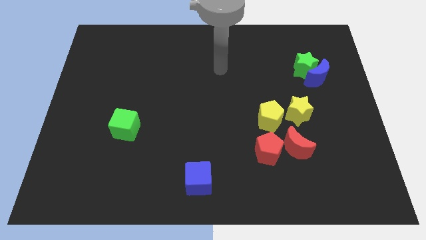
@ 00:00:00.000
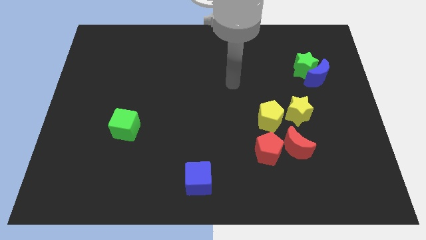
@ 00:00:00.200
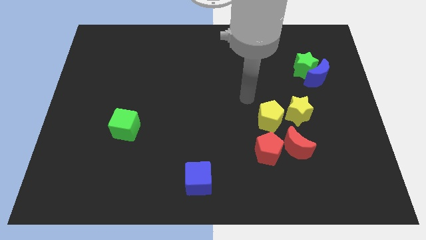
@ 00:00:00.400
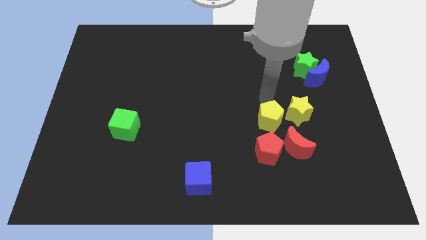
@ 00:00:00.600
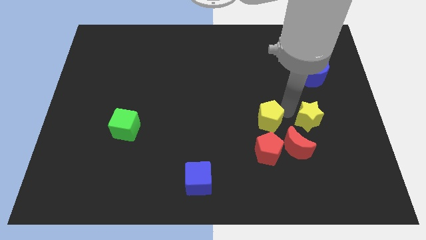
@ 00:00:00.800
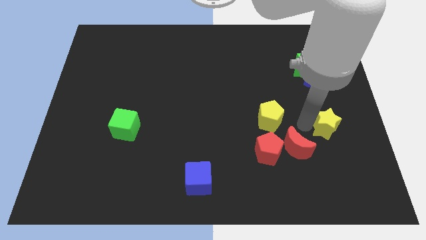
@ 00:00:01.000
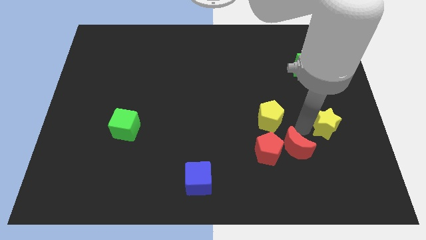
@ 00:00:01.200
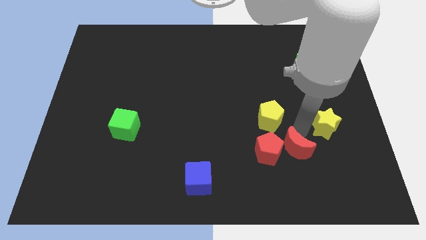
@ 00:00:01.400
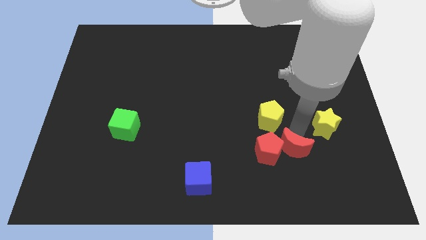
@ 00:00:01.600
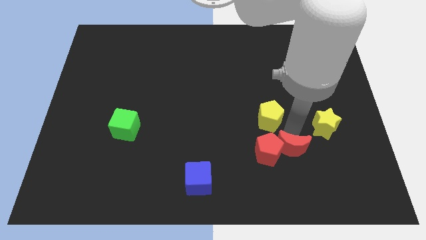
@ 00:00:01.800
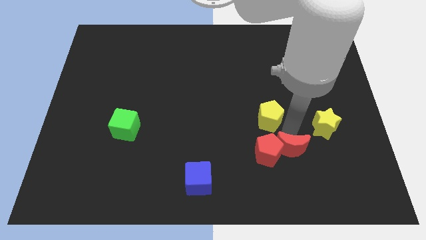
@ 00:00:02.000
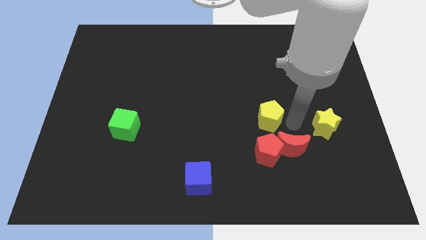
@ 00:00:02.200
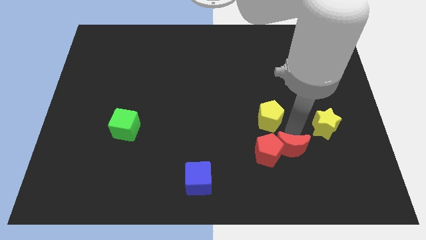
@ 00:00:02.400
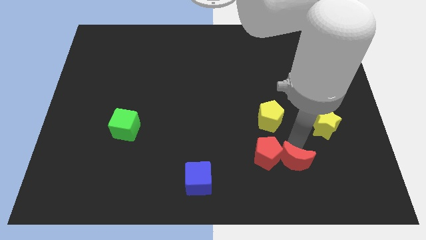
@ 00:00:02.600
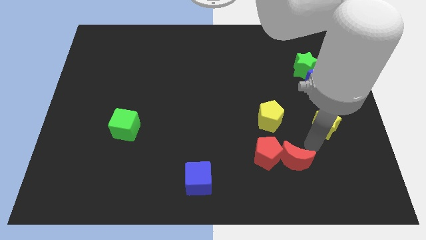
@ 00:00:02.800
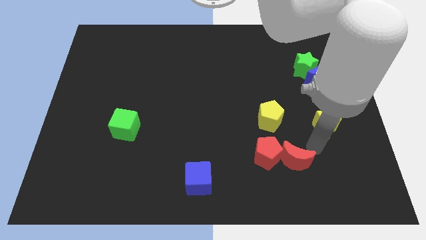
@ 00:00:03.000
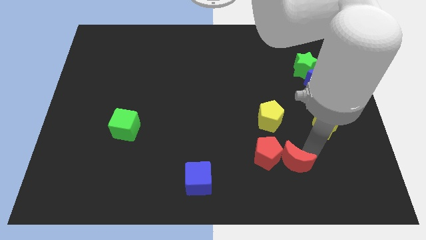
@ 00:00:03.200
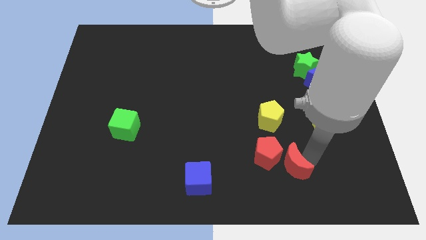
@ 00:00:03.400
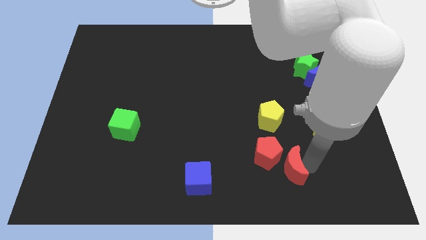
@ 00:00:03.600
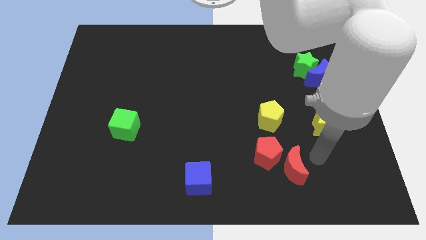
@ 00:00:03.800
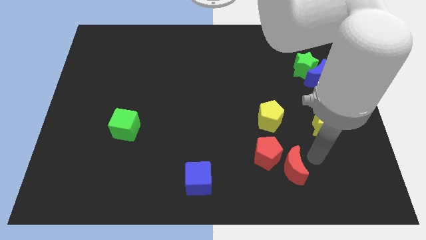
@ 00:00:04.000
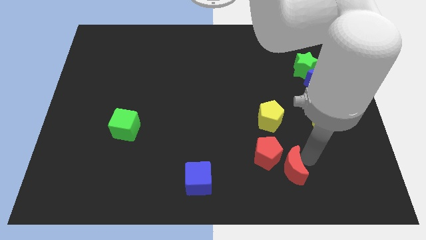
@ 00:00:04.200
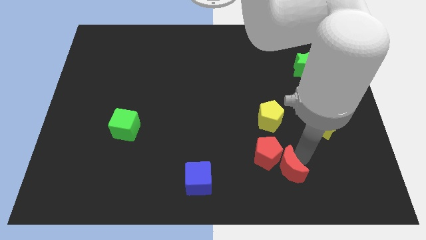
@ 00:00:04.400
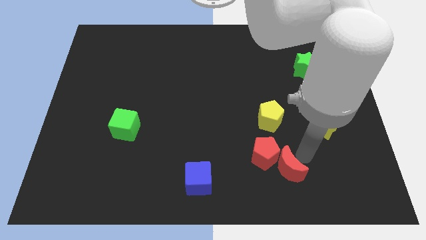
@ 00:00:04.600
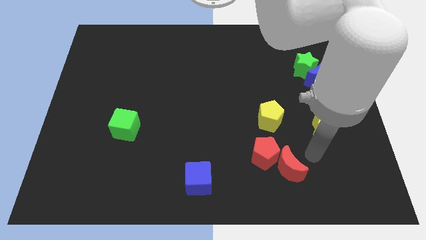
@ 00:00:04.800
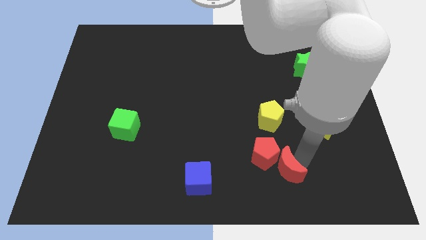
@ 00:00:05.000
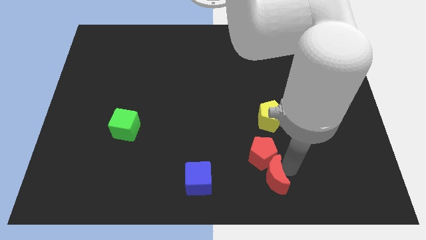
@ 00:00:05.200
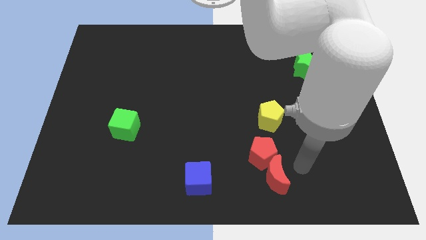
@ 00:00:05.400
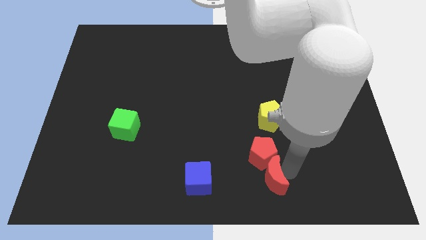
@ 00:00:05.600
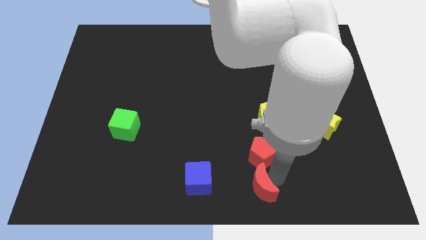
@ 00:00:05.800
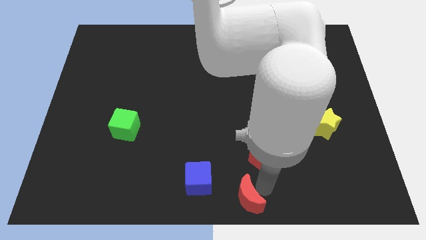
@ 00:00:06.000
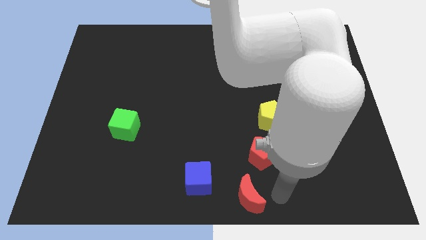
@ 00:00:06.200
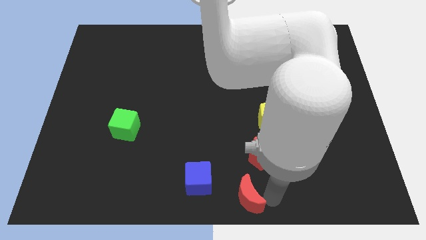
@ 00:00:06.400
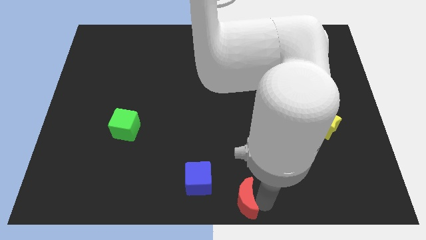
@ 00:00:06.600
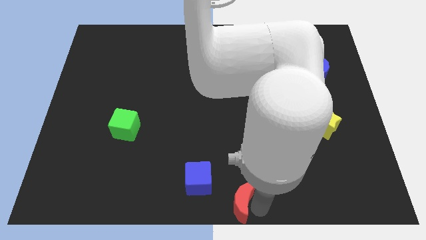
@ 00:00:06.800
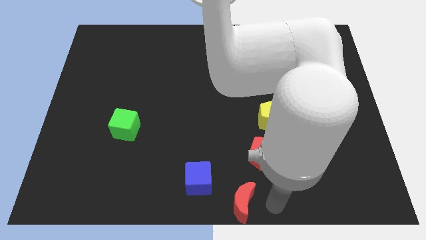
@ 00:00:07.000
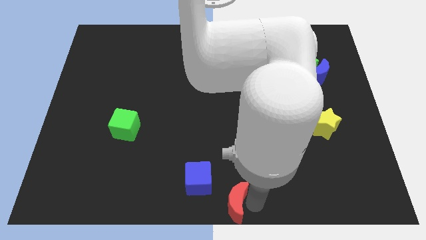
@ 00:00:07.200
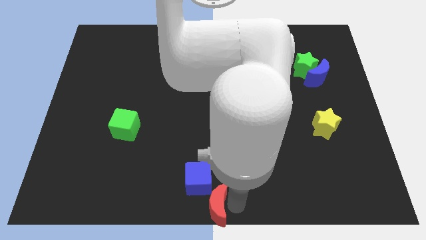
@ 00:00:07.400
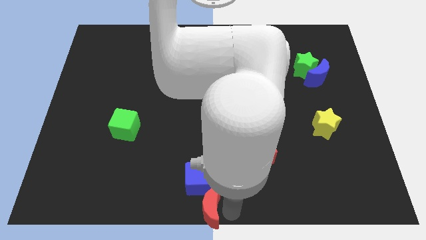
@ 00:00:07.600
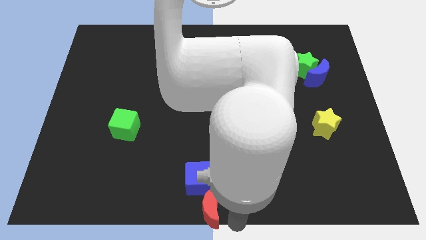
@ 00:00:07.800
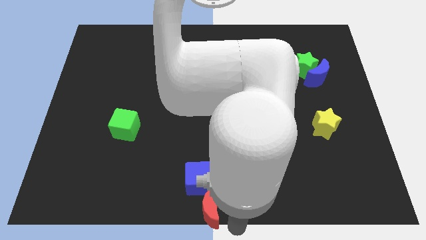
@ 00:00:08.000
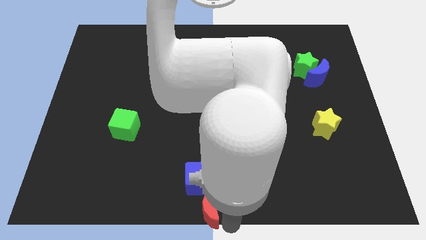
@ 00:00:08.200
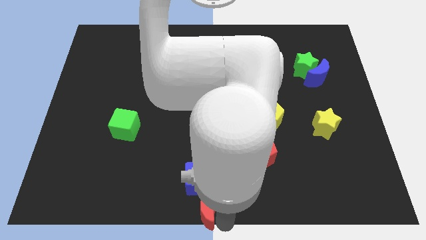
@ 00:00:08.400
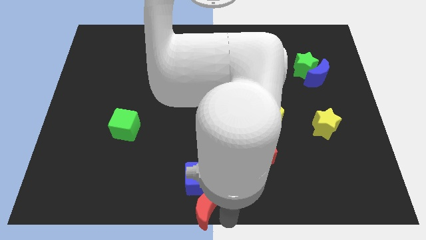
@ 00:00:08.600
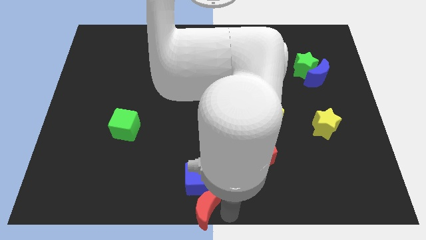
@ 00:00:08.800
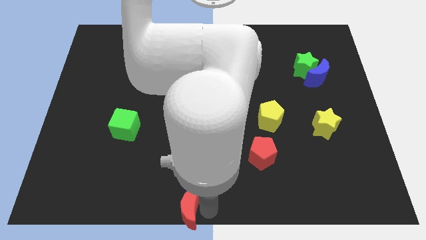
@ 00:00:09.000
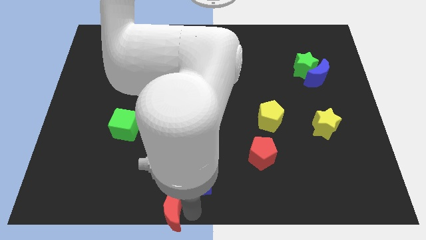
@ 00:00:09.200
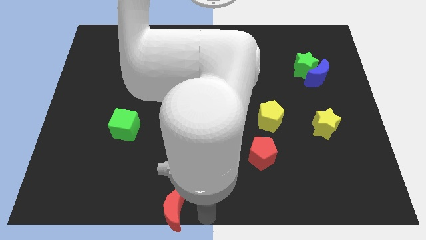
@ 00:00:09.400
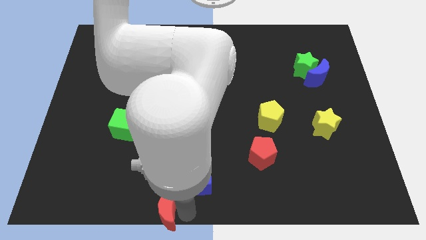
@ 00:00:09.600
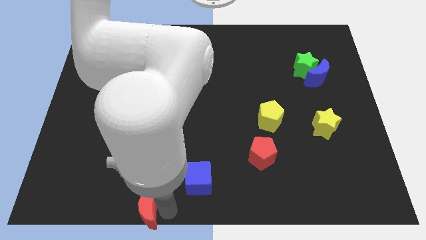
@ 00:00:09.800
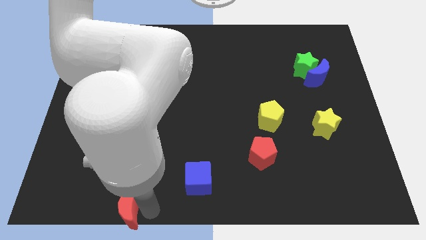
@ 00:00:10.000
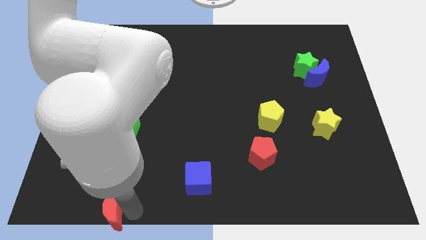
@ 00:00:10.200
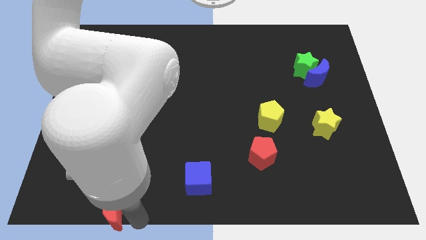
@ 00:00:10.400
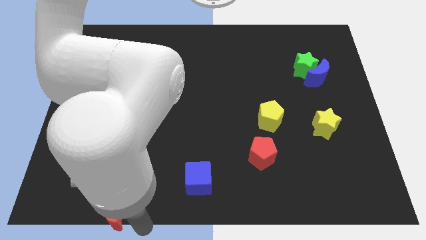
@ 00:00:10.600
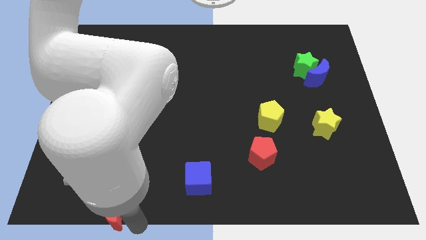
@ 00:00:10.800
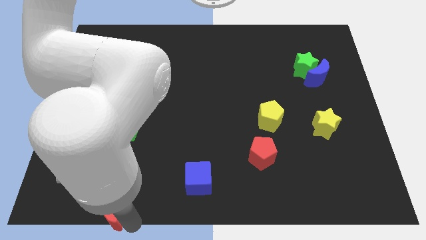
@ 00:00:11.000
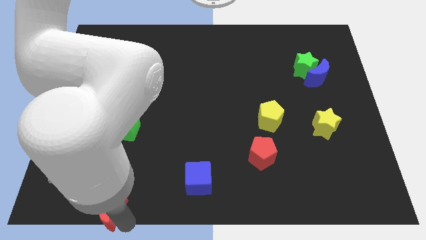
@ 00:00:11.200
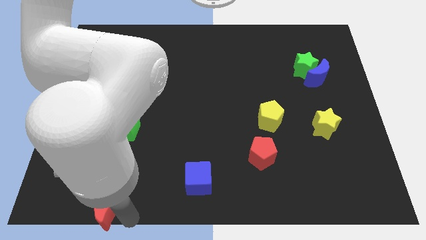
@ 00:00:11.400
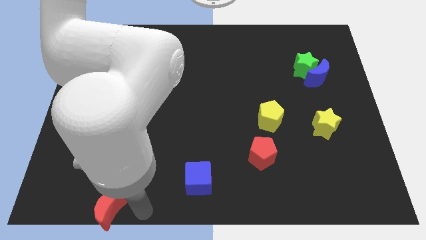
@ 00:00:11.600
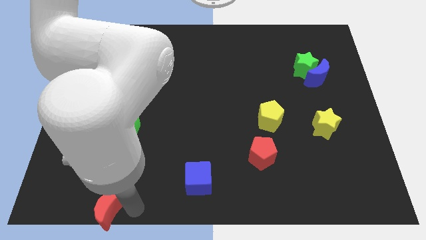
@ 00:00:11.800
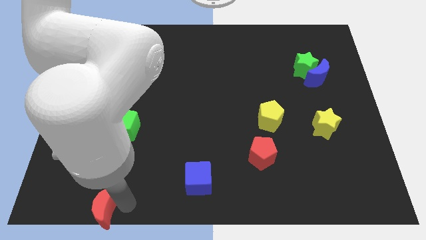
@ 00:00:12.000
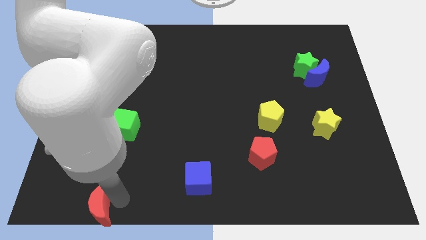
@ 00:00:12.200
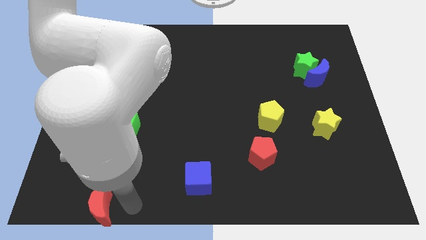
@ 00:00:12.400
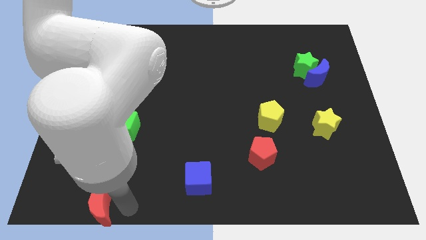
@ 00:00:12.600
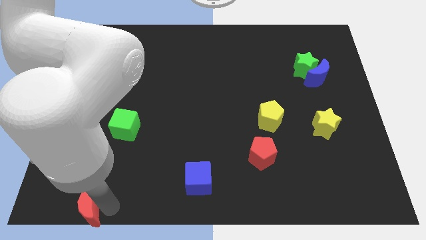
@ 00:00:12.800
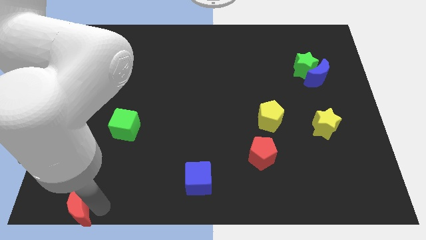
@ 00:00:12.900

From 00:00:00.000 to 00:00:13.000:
put the red moon to the lower left corner
